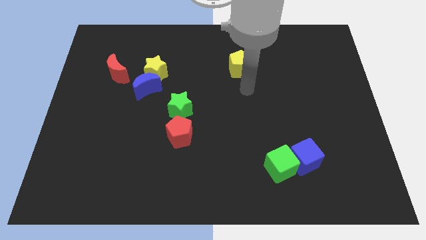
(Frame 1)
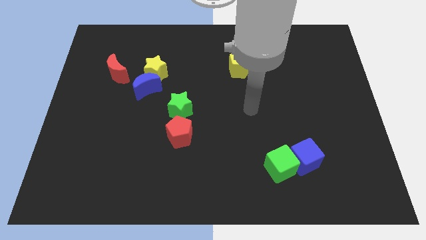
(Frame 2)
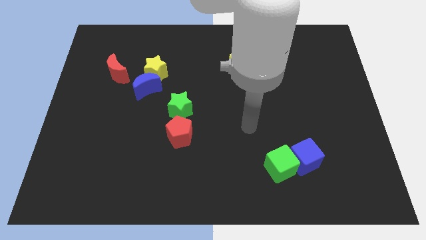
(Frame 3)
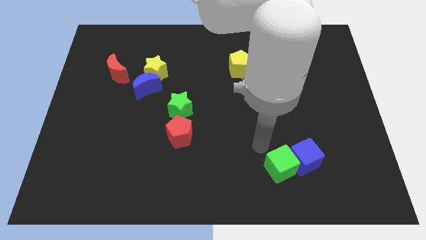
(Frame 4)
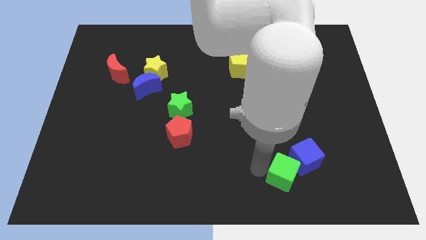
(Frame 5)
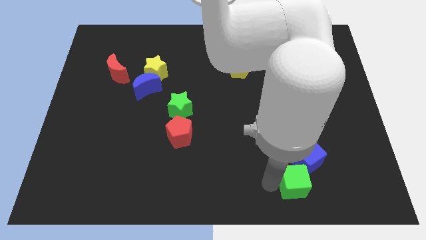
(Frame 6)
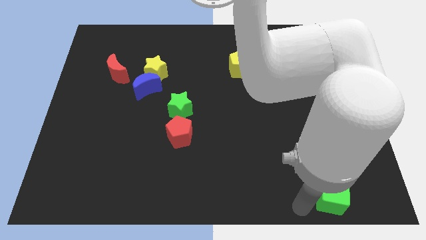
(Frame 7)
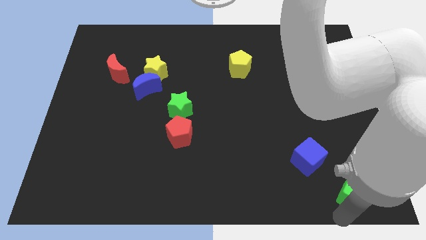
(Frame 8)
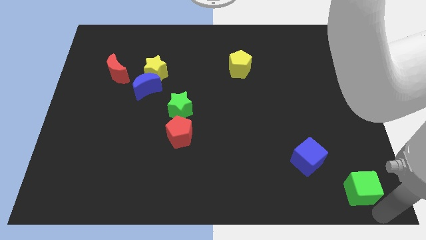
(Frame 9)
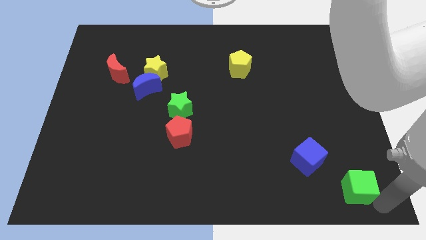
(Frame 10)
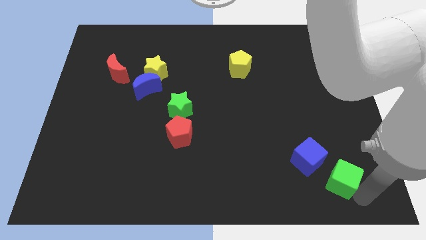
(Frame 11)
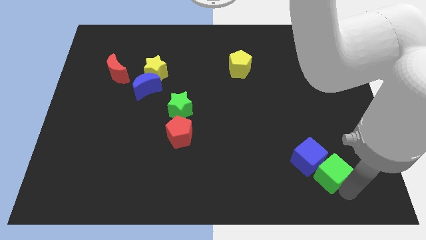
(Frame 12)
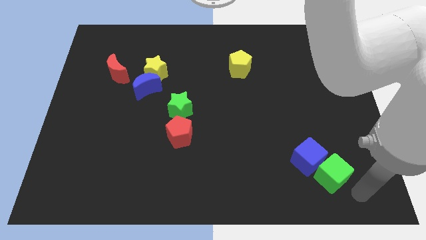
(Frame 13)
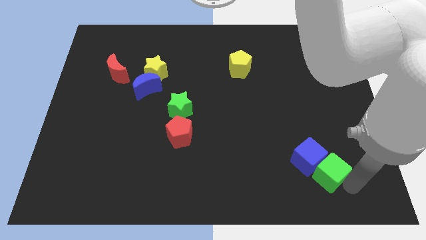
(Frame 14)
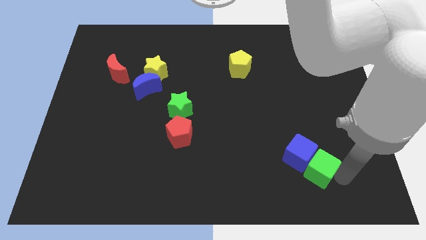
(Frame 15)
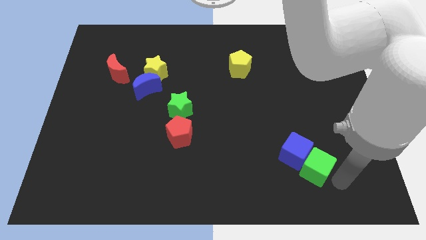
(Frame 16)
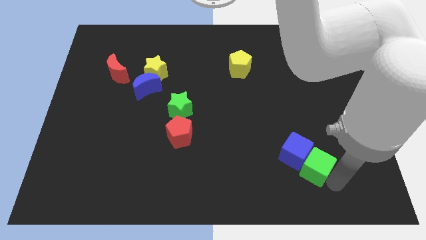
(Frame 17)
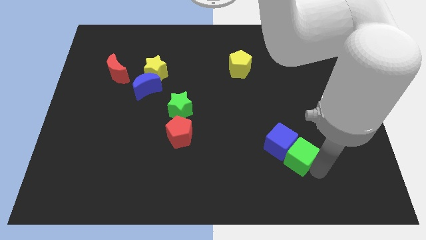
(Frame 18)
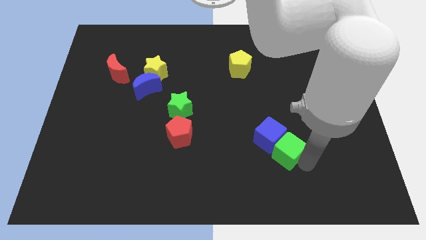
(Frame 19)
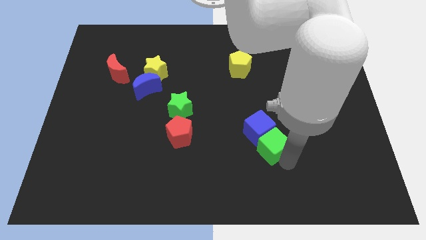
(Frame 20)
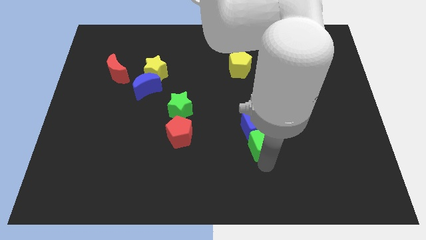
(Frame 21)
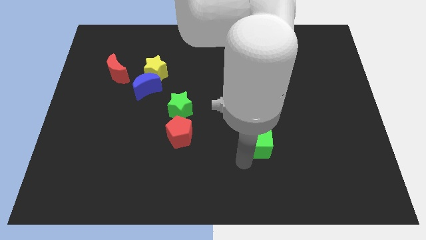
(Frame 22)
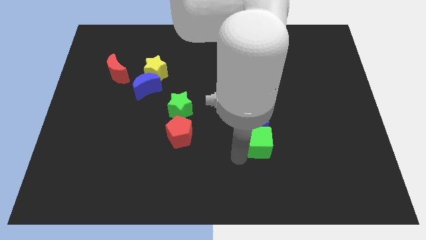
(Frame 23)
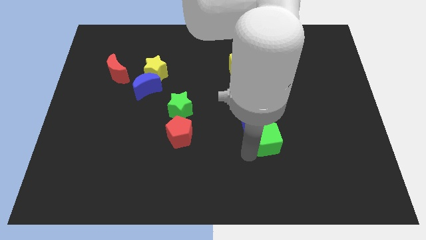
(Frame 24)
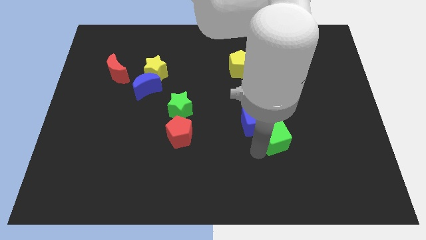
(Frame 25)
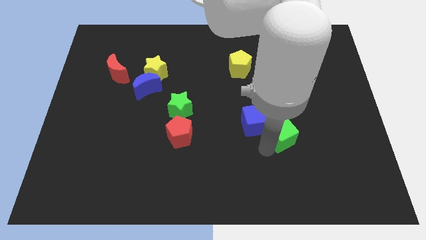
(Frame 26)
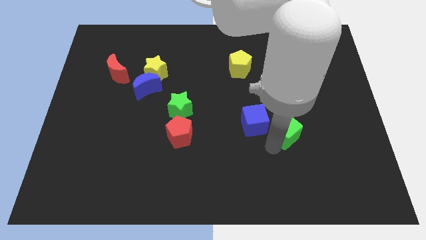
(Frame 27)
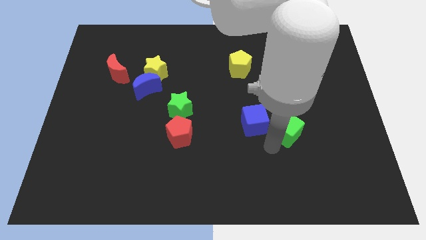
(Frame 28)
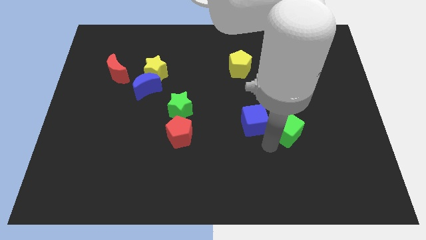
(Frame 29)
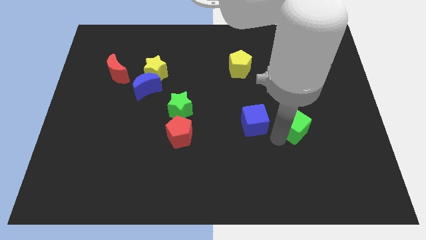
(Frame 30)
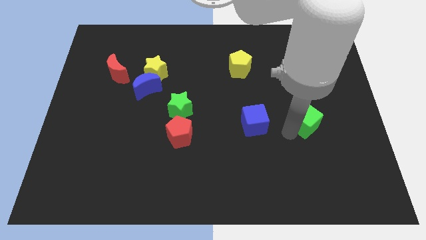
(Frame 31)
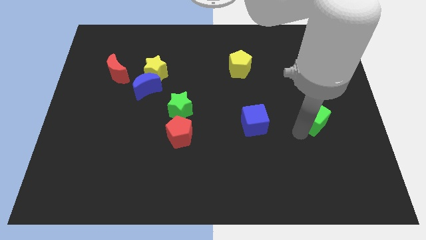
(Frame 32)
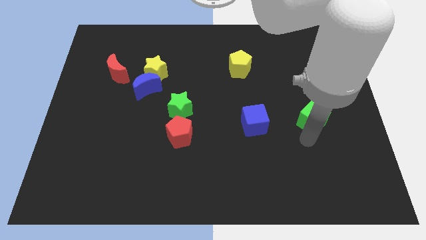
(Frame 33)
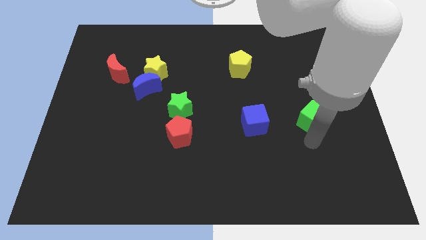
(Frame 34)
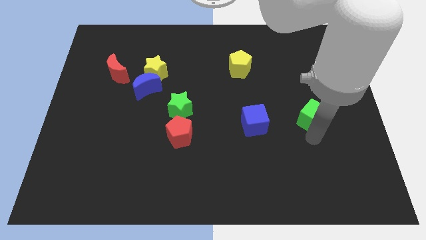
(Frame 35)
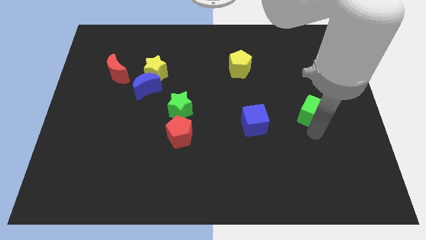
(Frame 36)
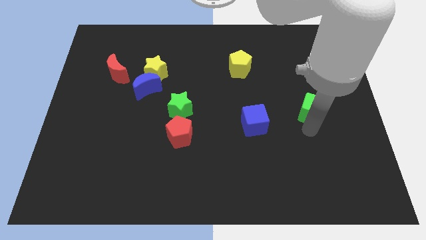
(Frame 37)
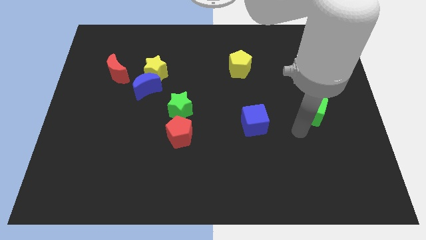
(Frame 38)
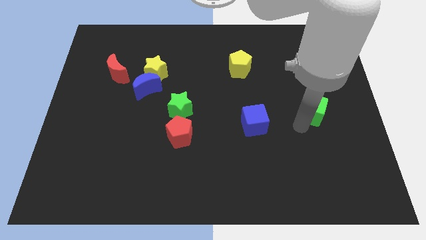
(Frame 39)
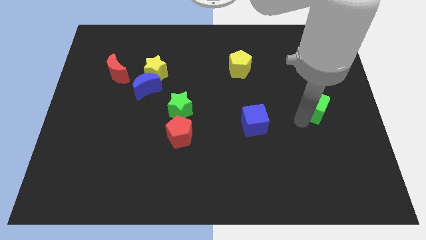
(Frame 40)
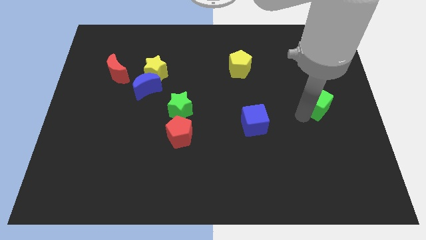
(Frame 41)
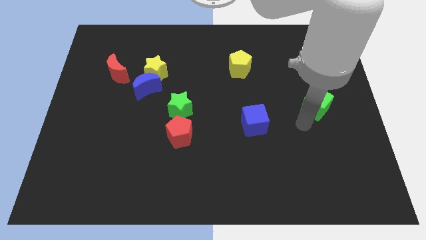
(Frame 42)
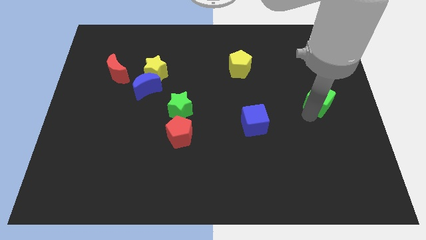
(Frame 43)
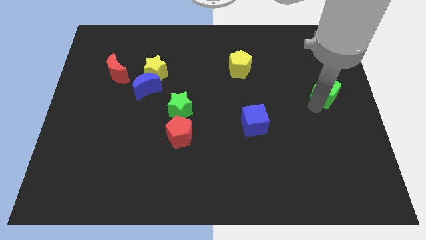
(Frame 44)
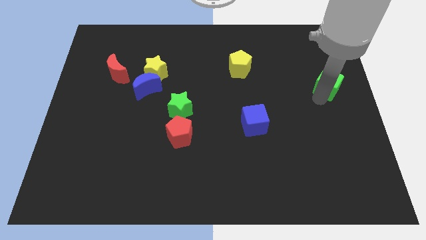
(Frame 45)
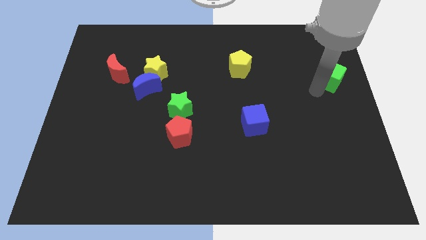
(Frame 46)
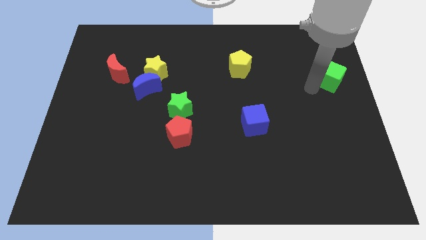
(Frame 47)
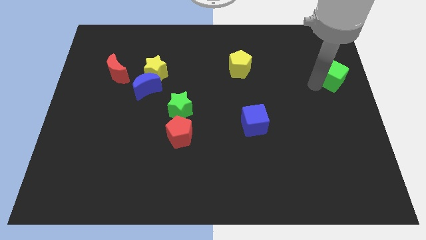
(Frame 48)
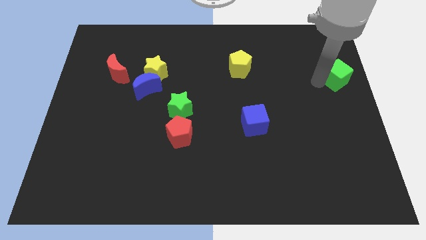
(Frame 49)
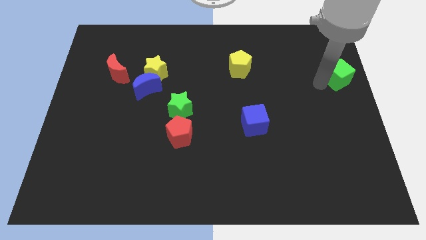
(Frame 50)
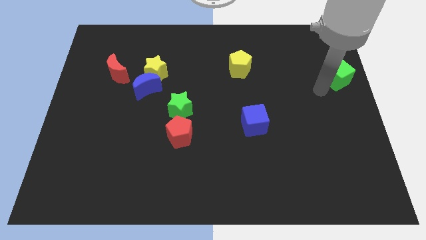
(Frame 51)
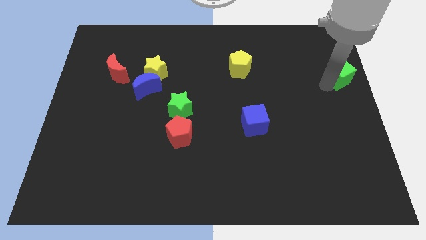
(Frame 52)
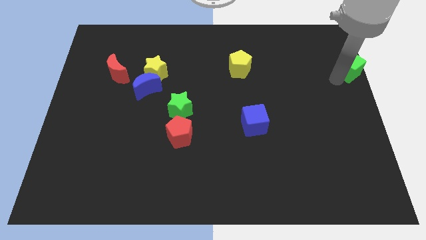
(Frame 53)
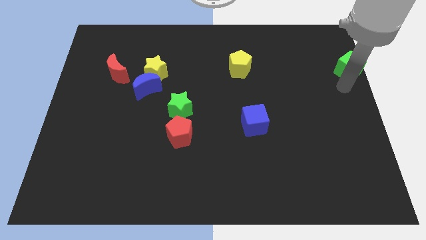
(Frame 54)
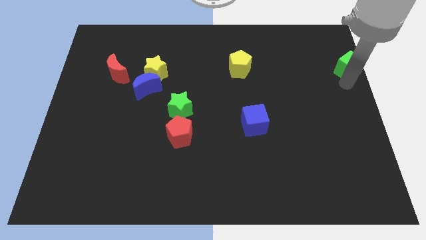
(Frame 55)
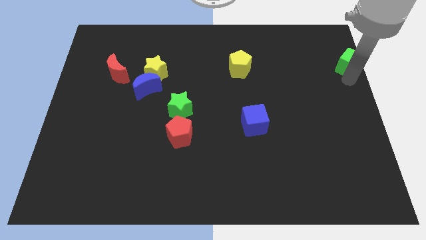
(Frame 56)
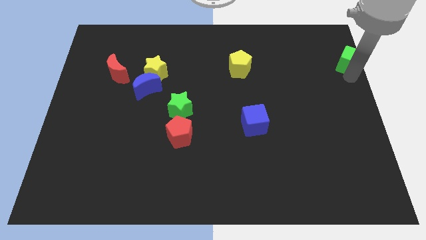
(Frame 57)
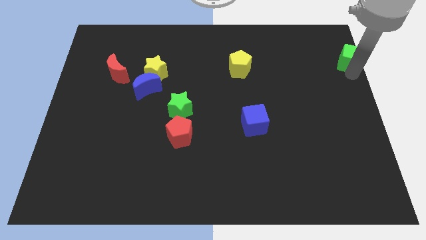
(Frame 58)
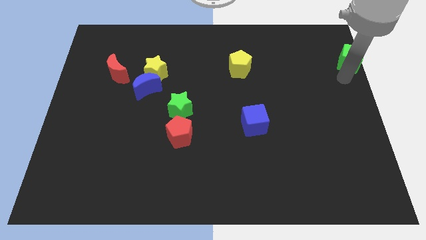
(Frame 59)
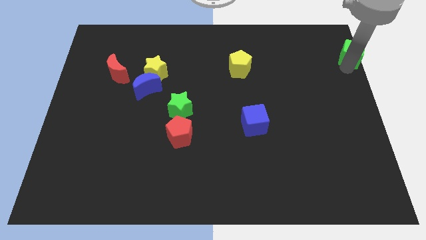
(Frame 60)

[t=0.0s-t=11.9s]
put the green cube to the top right of the board

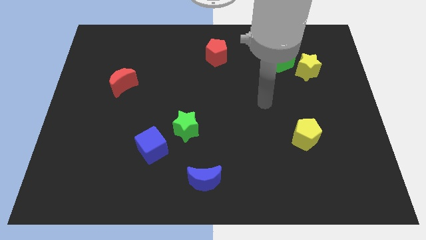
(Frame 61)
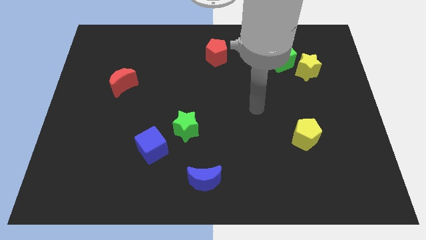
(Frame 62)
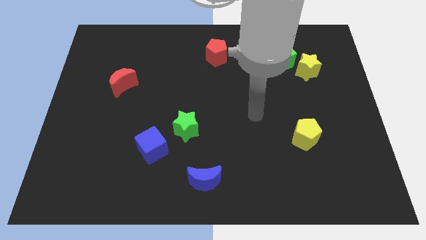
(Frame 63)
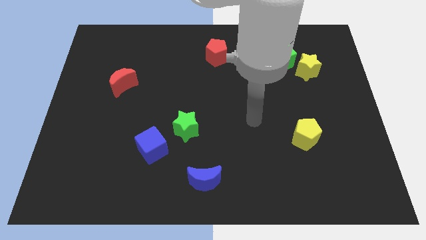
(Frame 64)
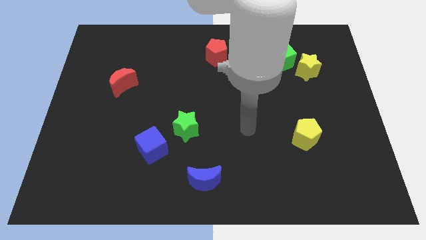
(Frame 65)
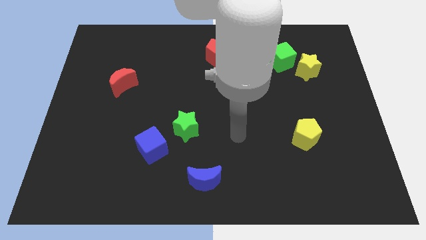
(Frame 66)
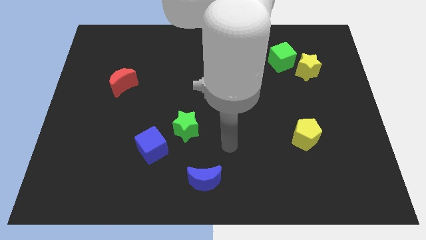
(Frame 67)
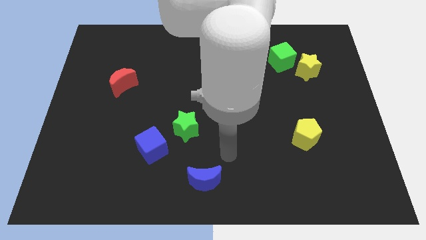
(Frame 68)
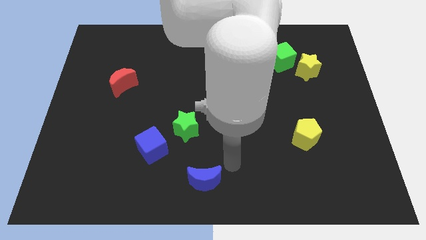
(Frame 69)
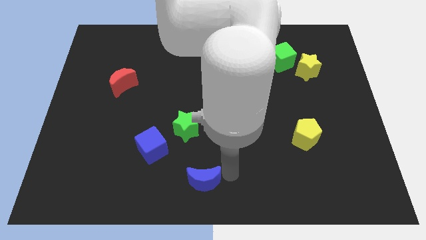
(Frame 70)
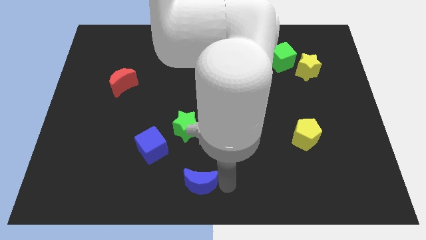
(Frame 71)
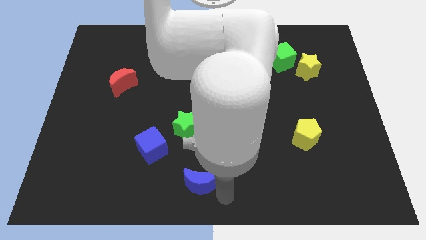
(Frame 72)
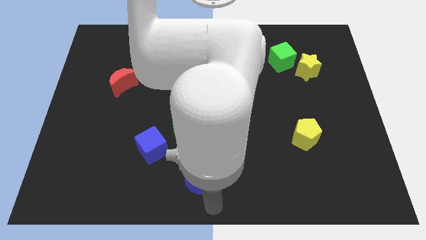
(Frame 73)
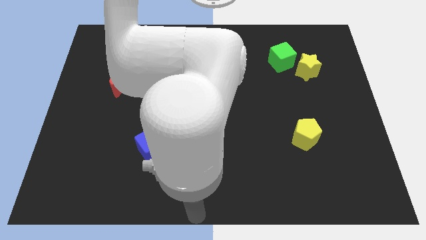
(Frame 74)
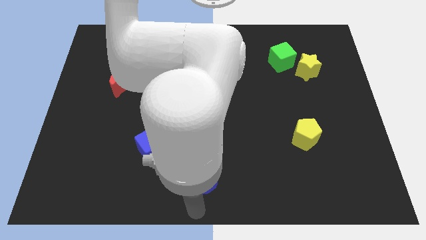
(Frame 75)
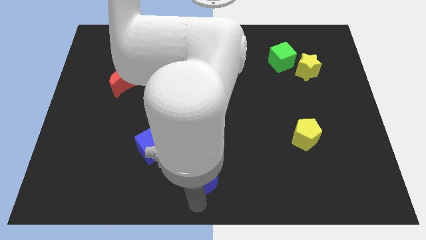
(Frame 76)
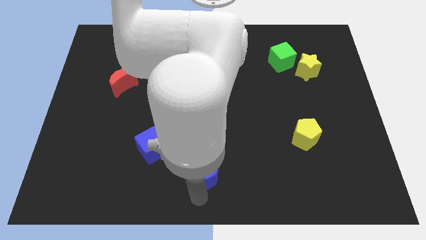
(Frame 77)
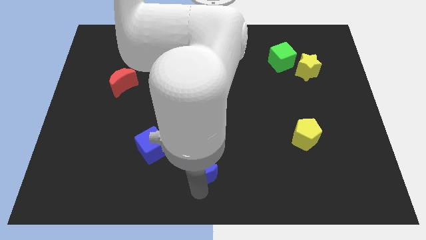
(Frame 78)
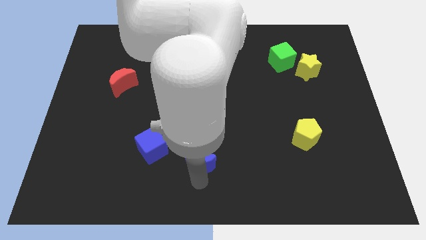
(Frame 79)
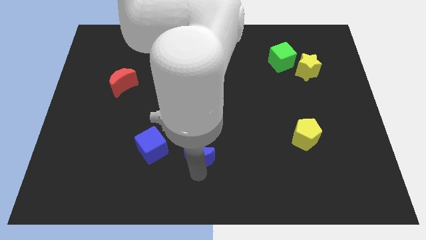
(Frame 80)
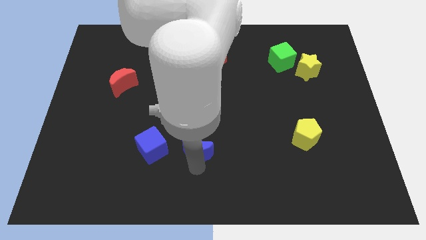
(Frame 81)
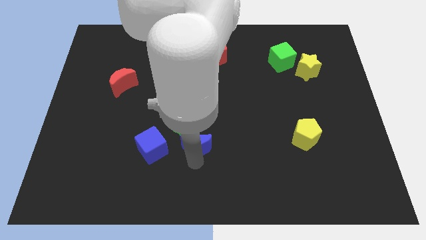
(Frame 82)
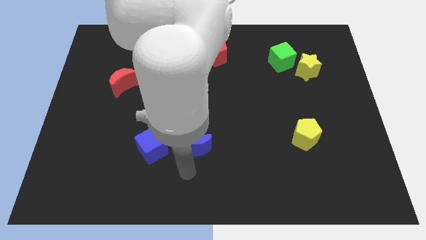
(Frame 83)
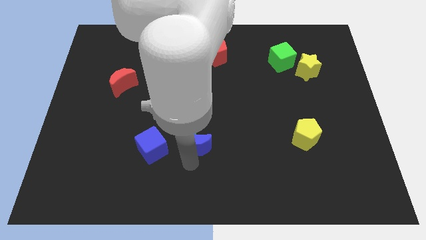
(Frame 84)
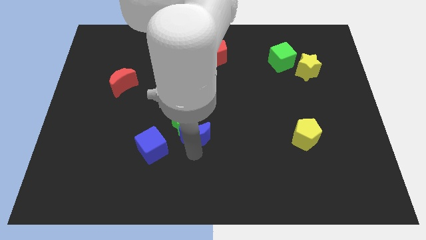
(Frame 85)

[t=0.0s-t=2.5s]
put the blue moon to the middle
